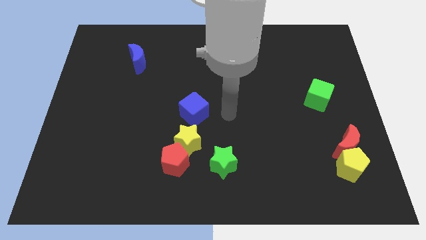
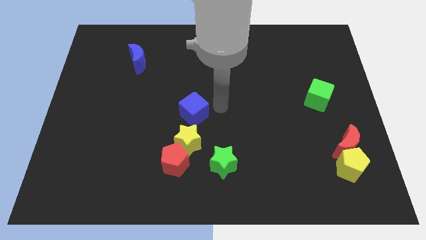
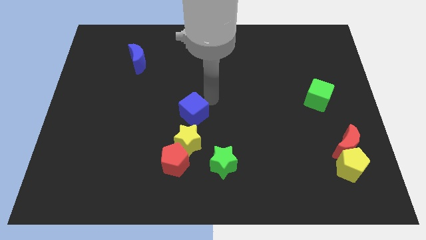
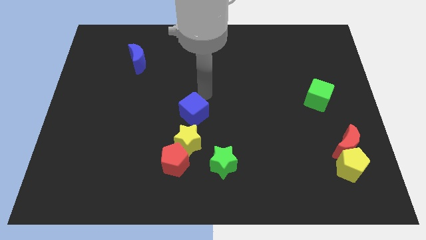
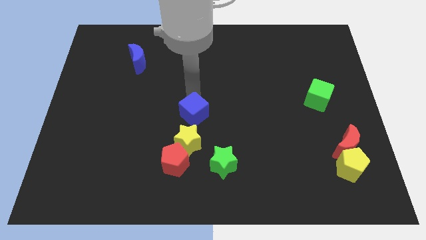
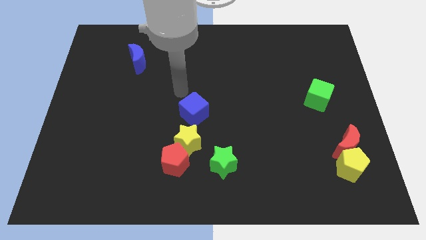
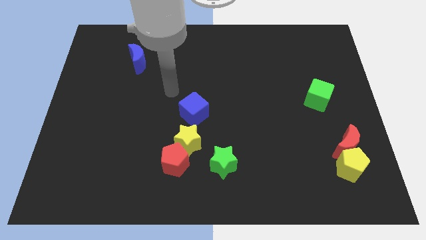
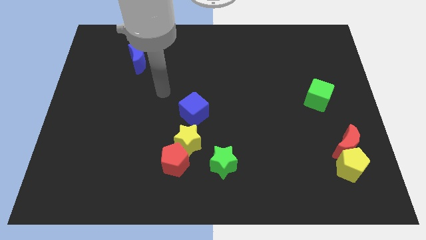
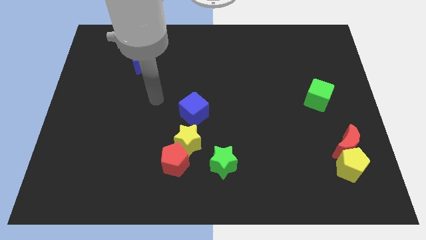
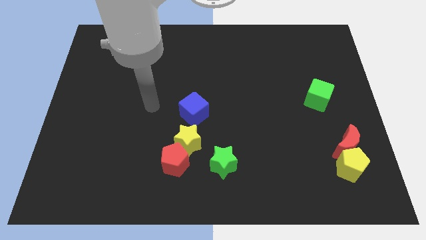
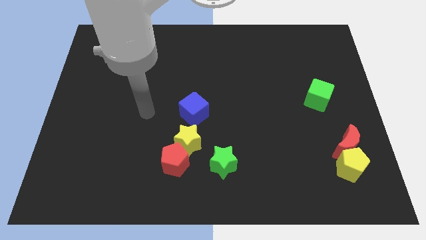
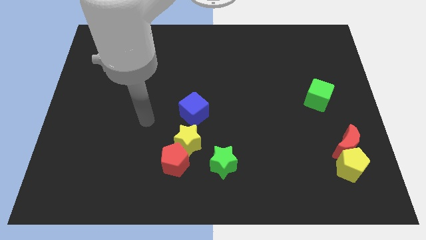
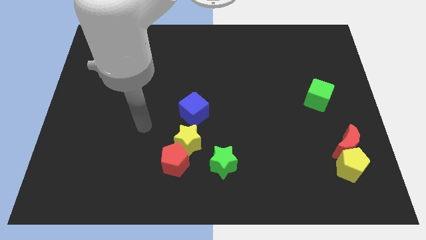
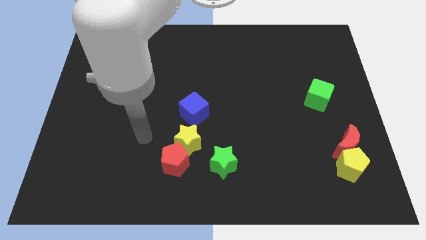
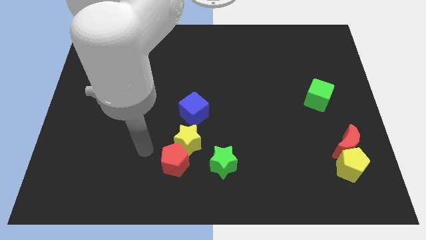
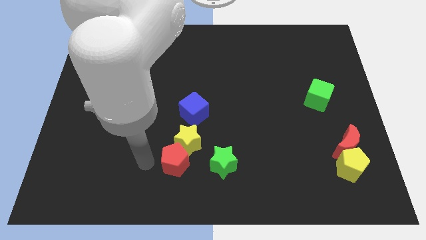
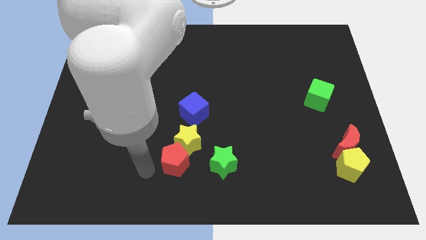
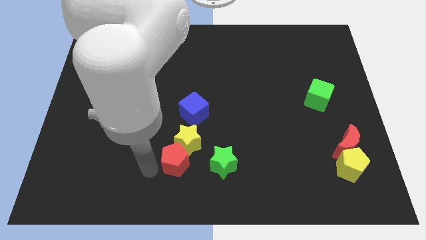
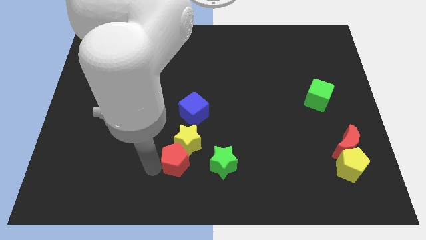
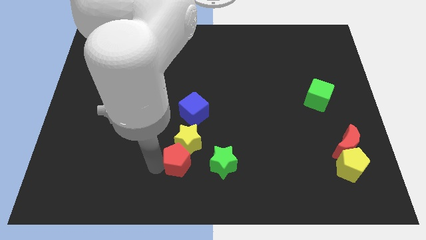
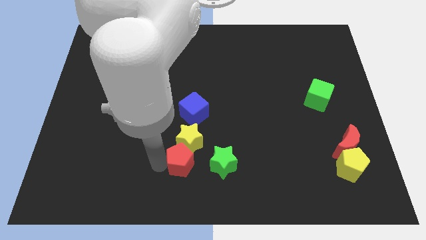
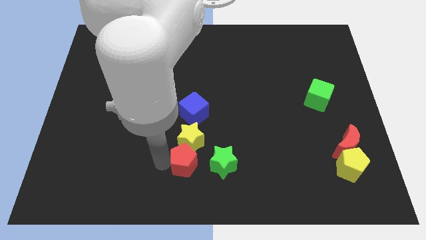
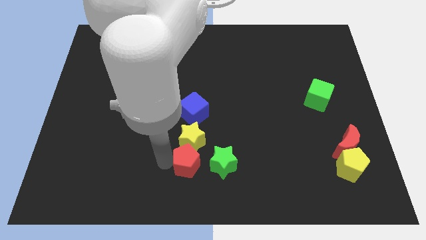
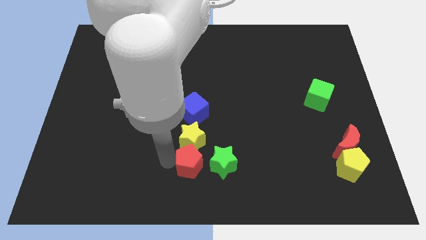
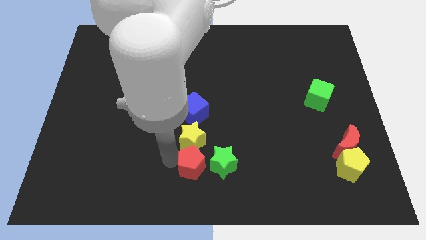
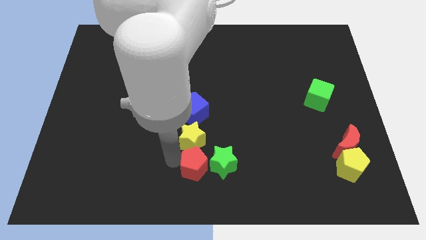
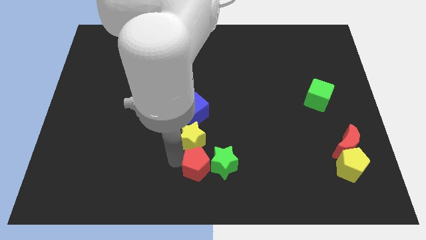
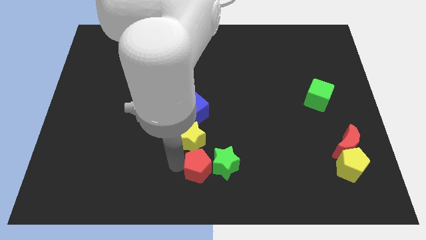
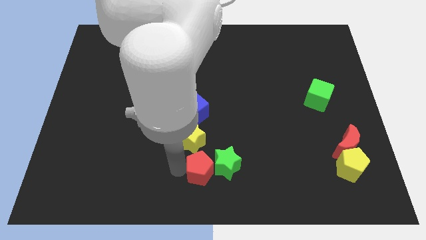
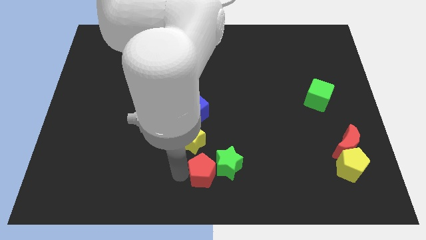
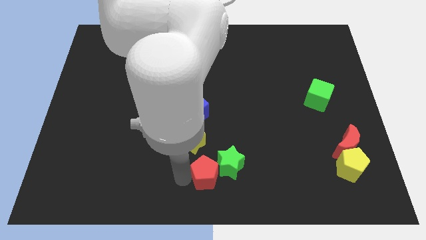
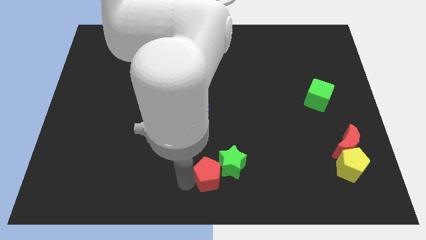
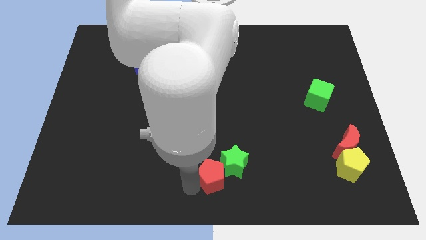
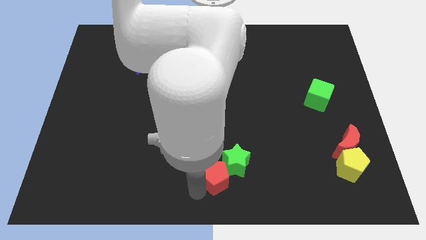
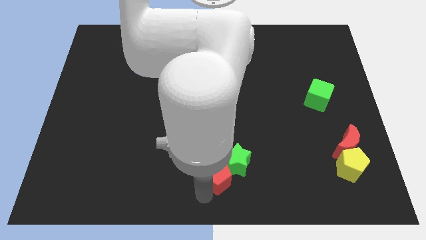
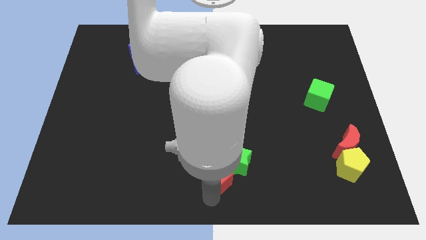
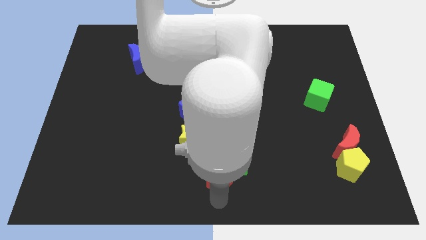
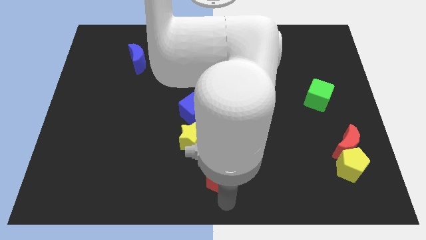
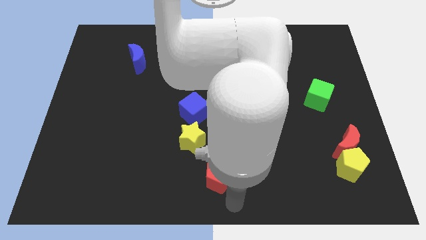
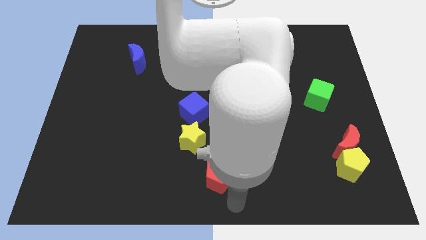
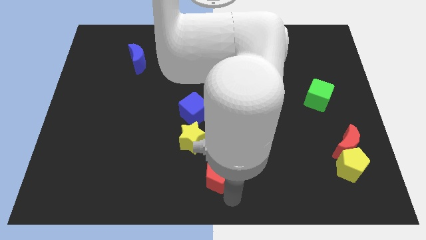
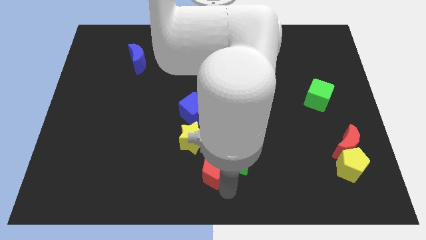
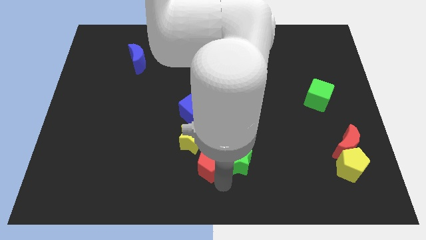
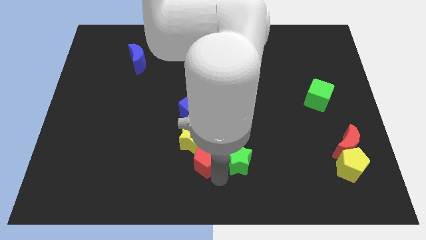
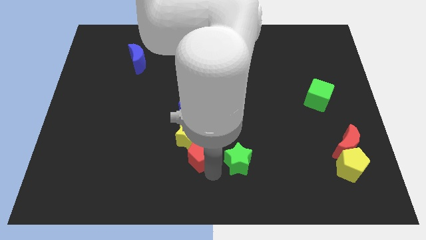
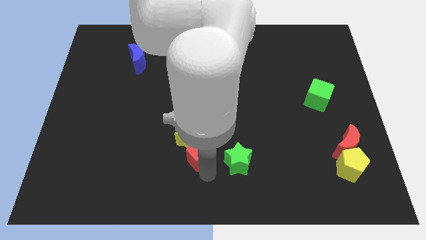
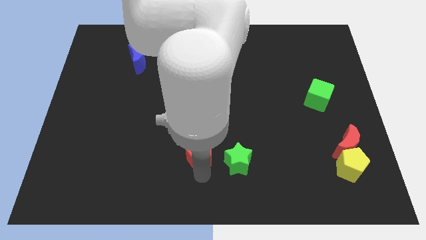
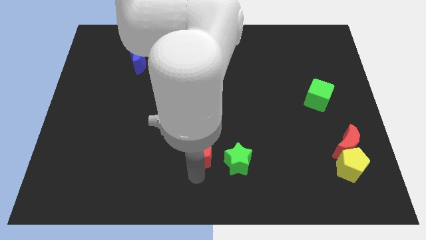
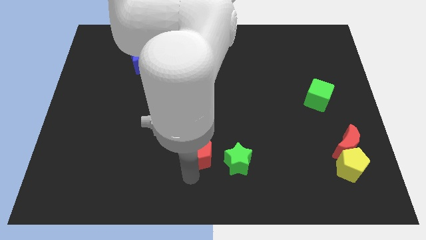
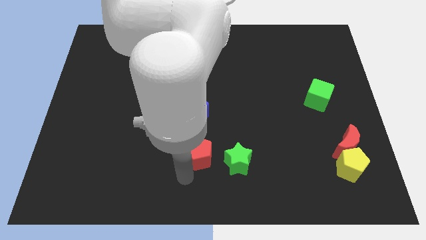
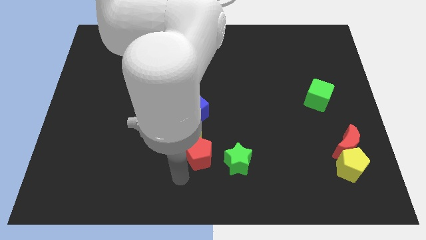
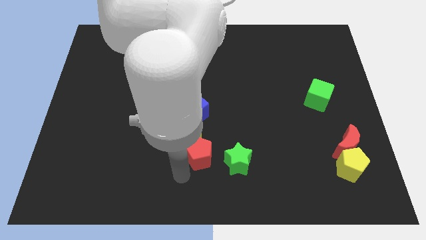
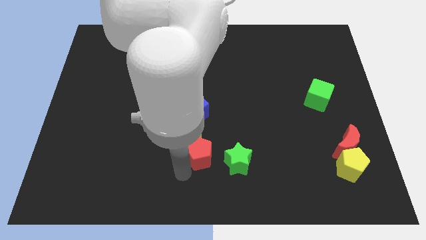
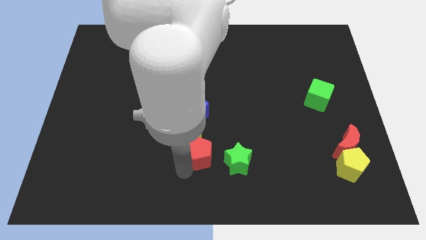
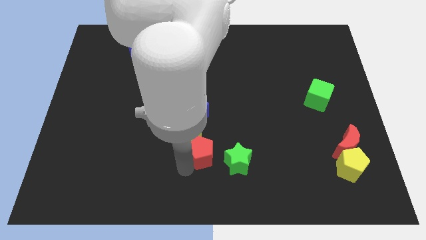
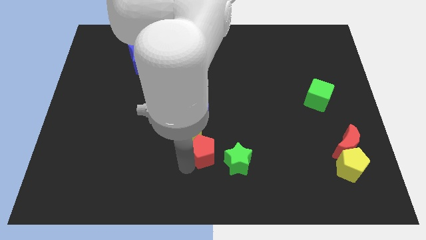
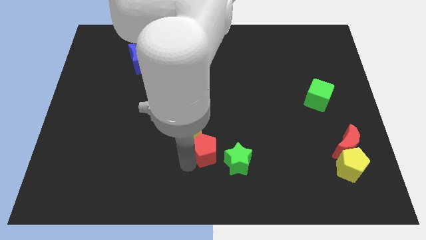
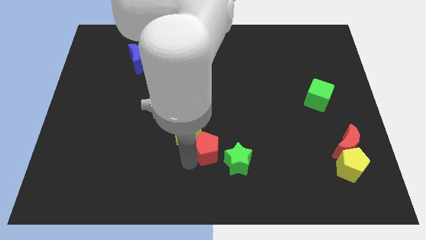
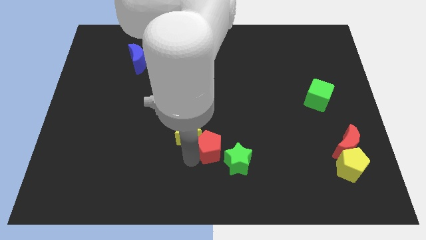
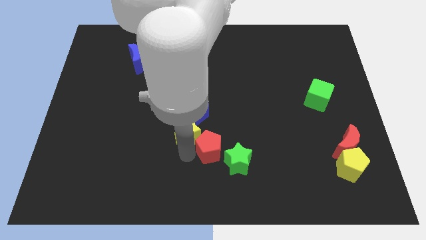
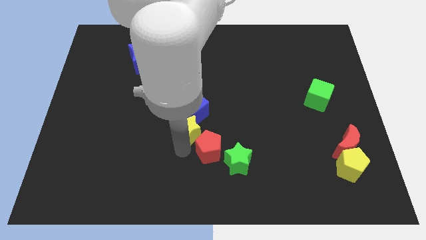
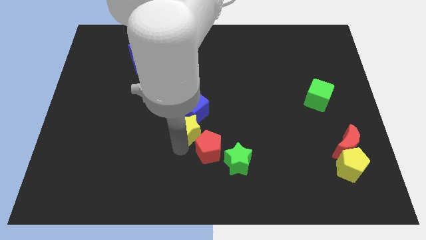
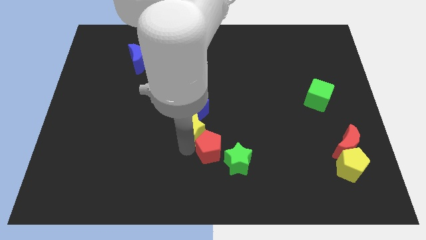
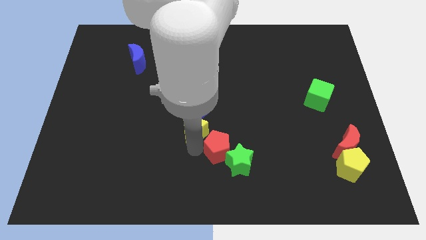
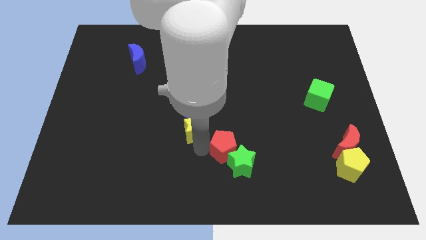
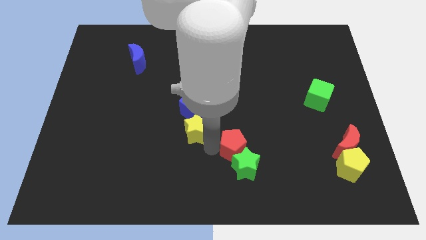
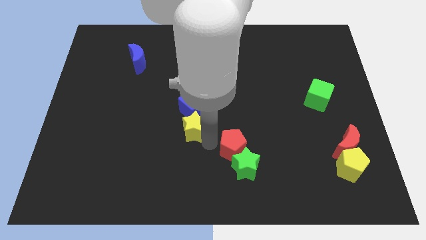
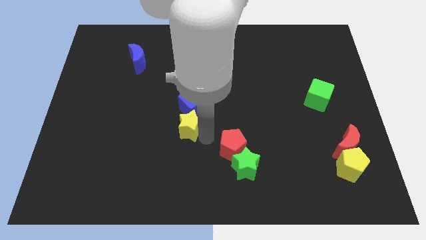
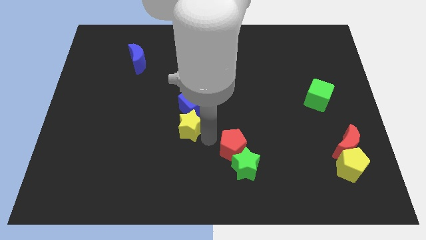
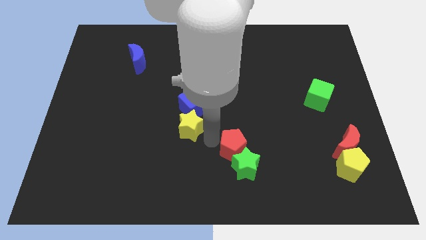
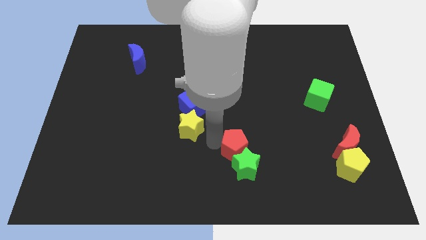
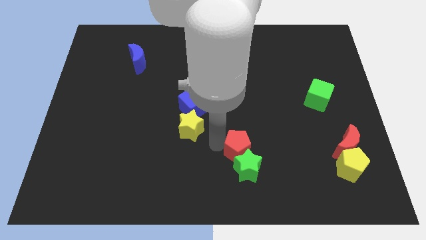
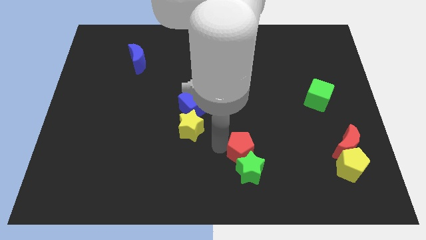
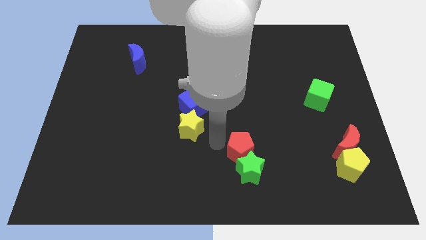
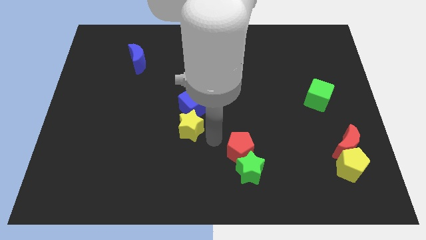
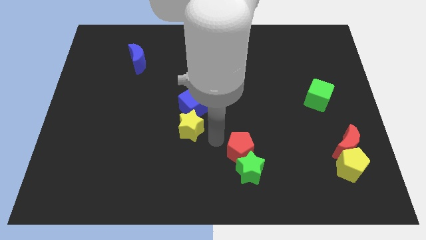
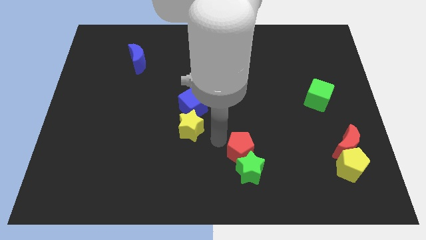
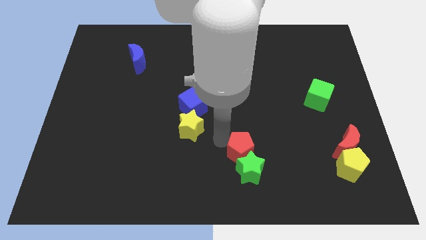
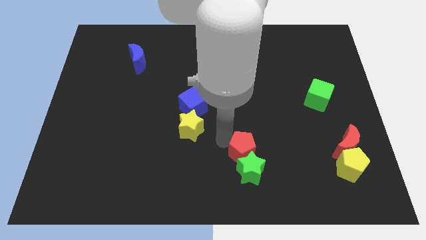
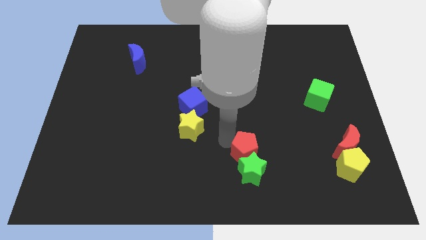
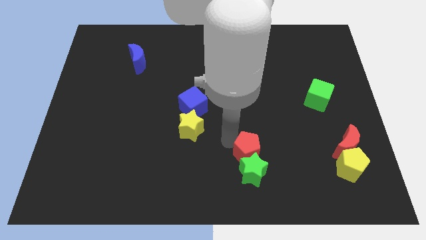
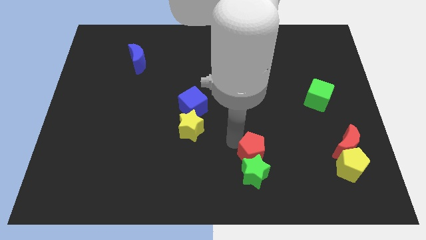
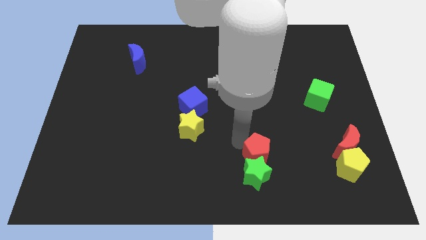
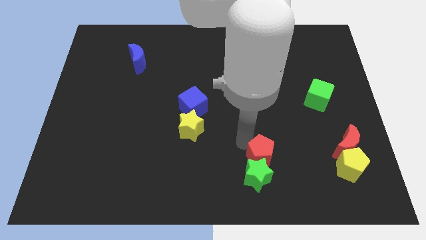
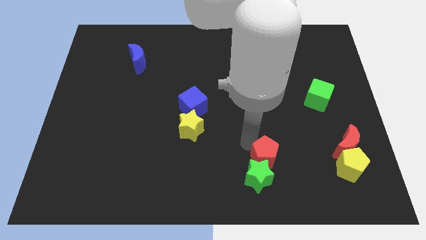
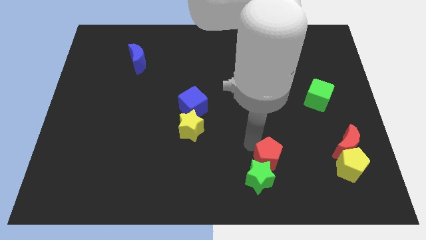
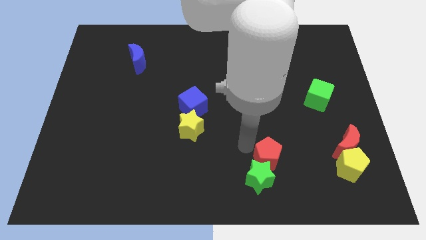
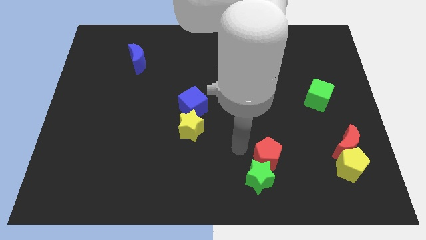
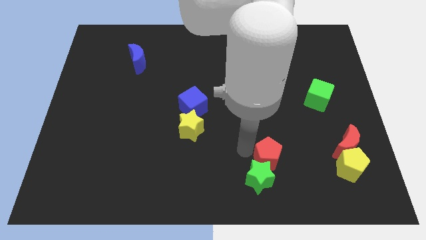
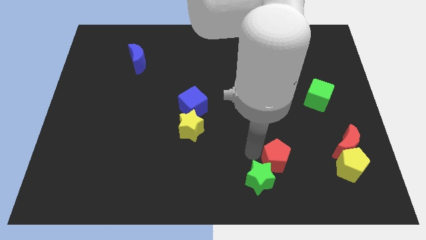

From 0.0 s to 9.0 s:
move the red pentagon to the left of the yellow pentagon
